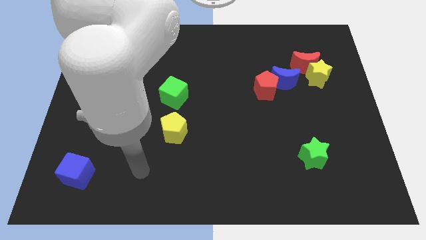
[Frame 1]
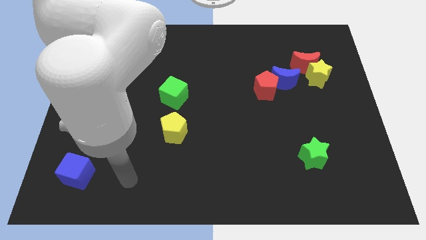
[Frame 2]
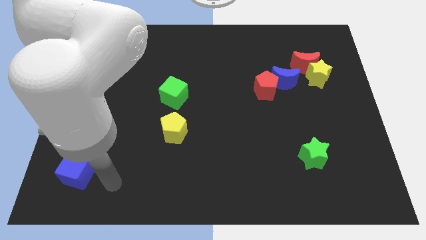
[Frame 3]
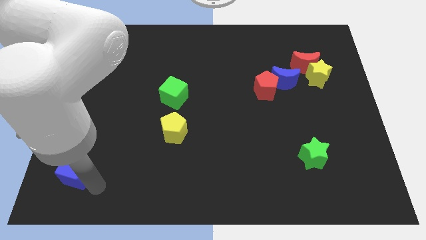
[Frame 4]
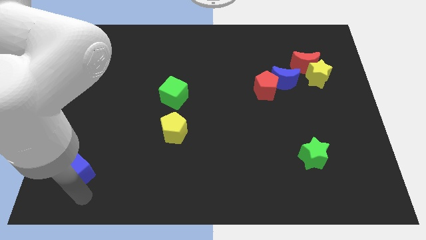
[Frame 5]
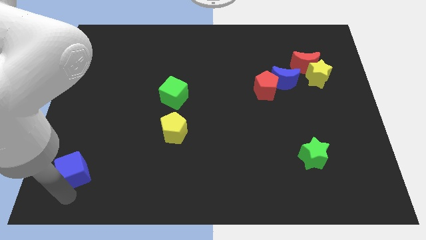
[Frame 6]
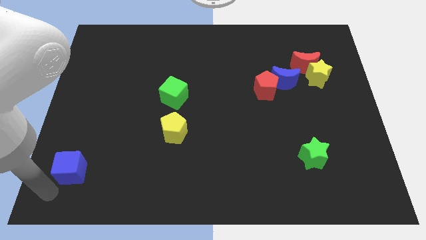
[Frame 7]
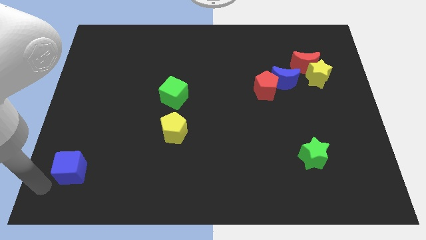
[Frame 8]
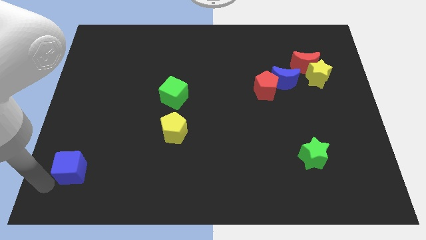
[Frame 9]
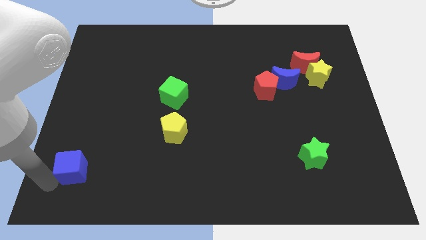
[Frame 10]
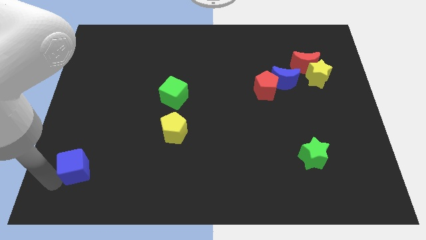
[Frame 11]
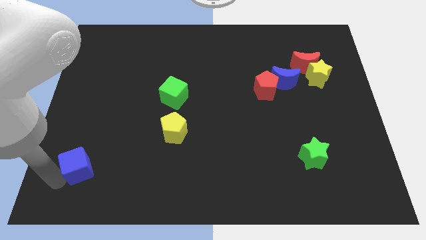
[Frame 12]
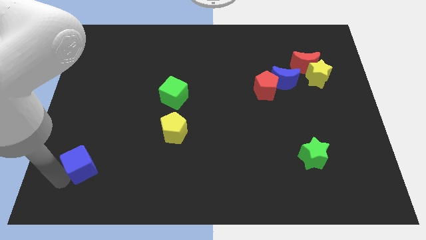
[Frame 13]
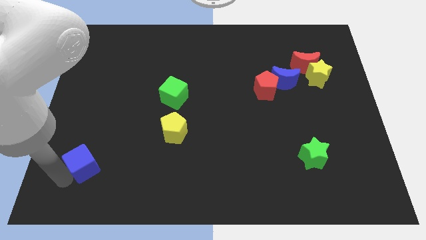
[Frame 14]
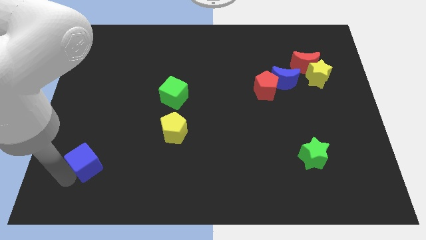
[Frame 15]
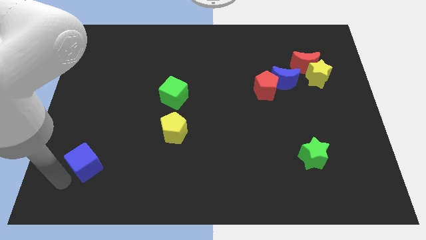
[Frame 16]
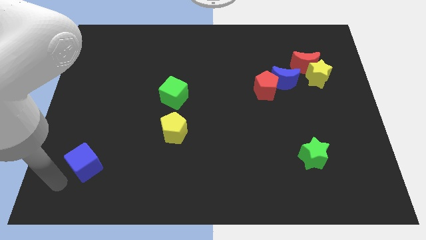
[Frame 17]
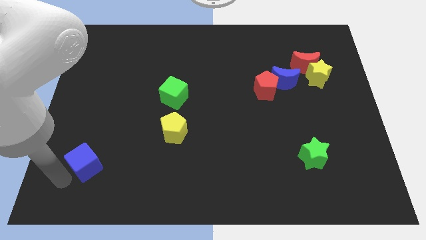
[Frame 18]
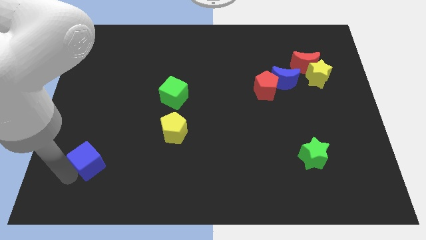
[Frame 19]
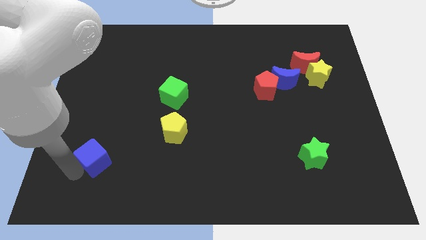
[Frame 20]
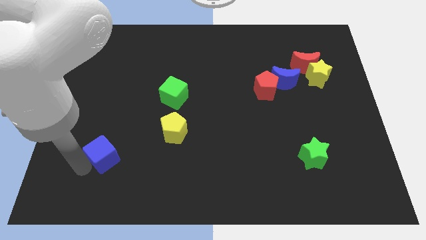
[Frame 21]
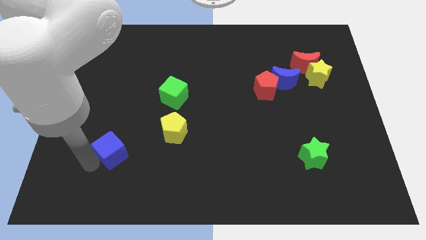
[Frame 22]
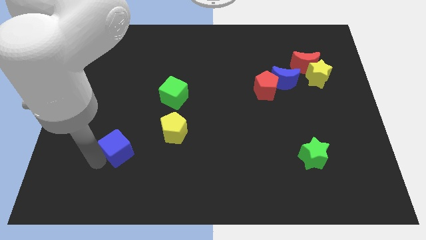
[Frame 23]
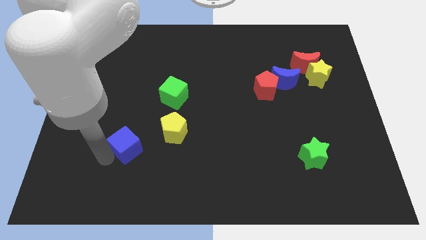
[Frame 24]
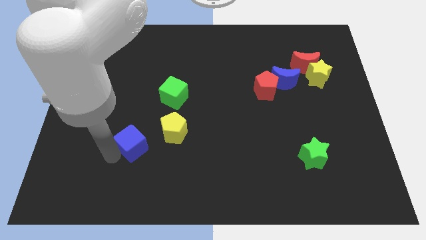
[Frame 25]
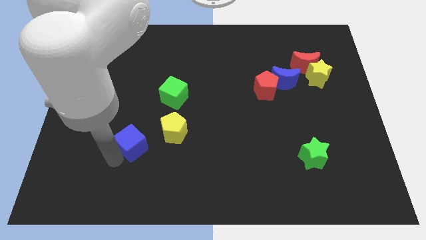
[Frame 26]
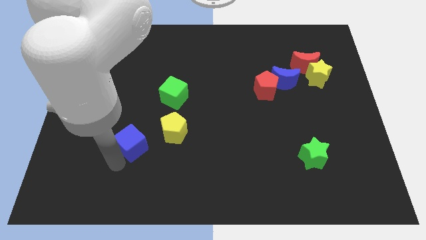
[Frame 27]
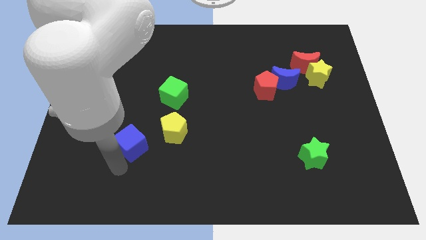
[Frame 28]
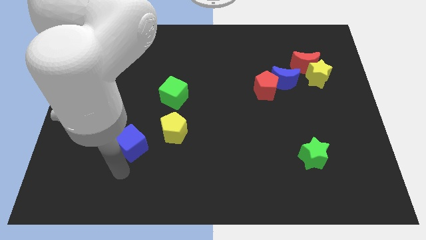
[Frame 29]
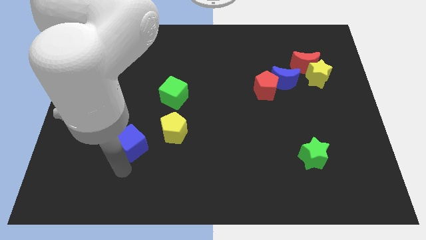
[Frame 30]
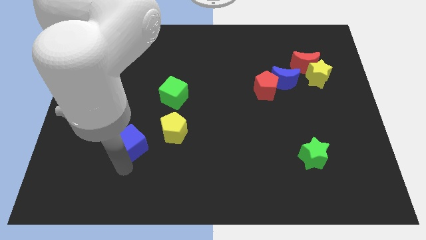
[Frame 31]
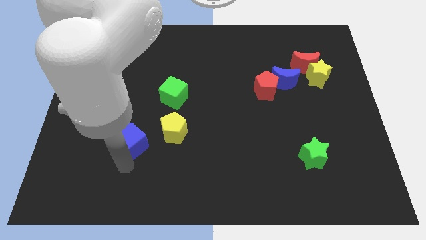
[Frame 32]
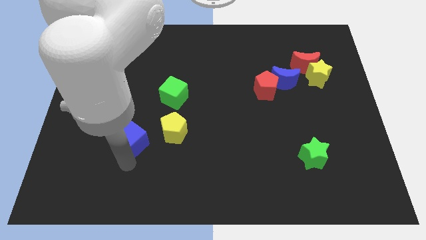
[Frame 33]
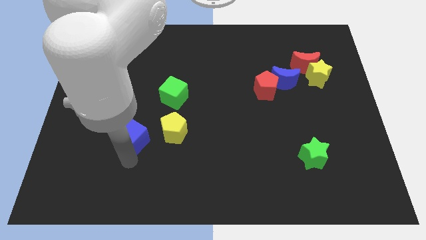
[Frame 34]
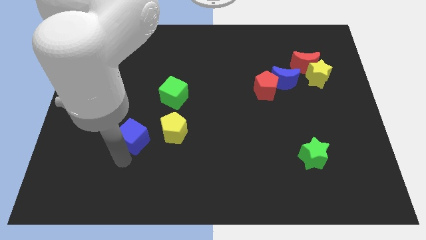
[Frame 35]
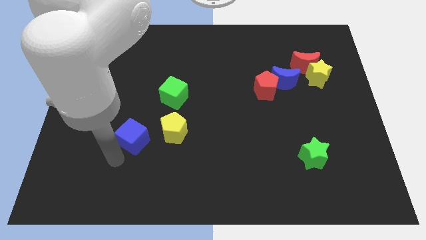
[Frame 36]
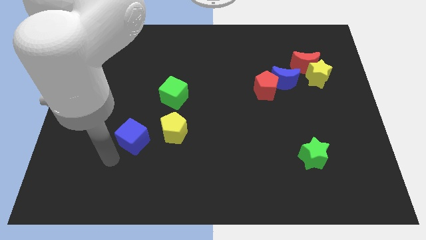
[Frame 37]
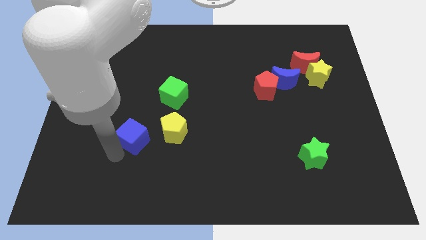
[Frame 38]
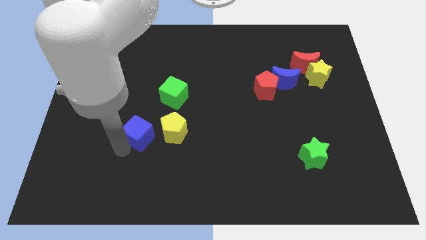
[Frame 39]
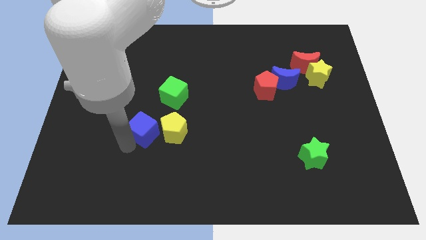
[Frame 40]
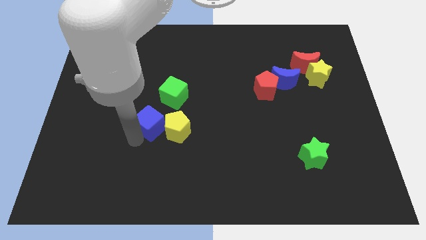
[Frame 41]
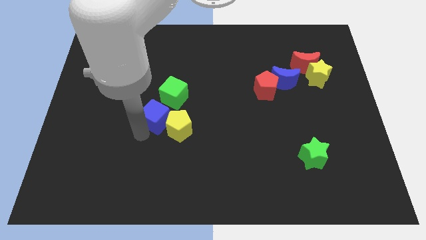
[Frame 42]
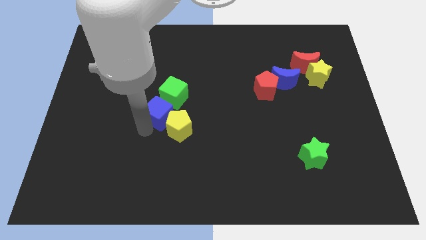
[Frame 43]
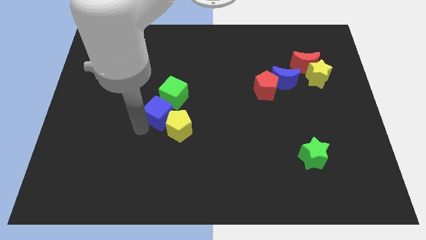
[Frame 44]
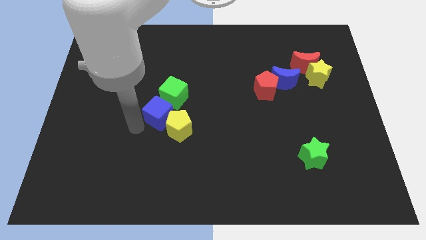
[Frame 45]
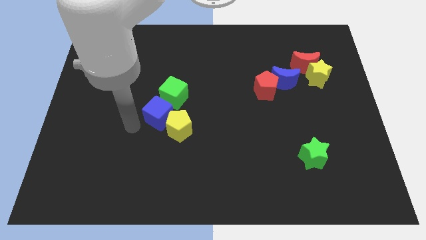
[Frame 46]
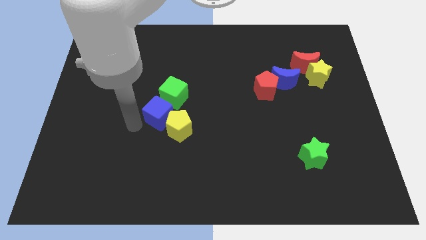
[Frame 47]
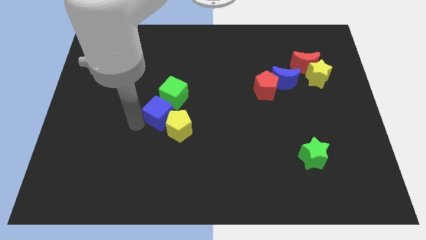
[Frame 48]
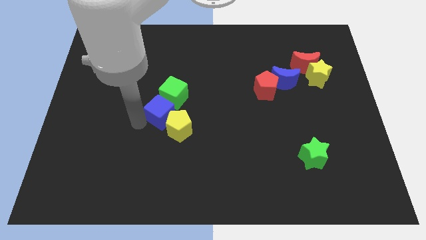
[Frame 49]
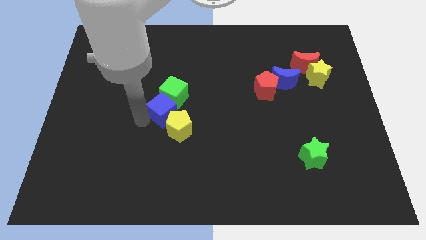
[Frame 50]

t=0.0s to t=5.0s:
put the blue cube to the center of the board

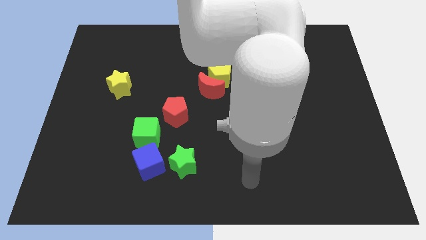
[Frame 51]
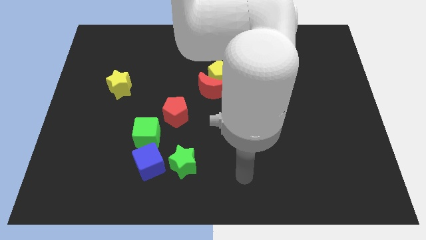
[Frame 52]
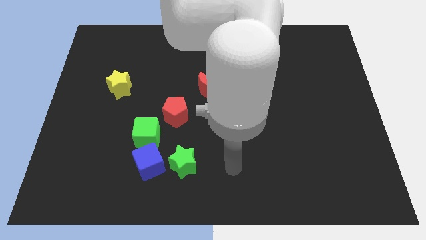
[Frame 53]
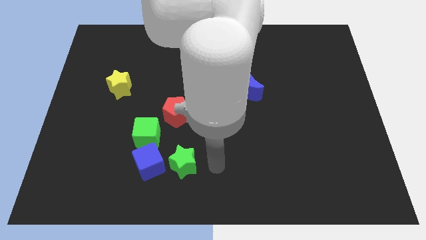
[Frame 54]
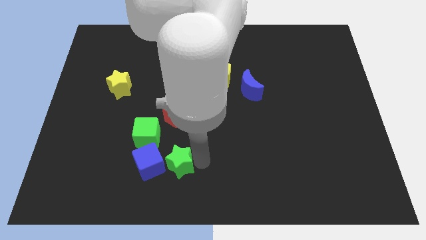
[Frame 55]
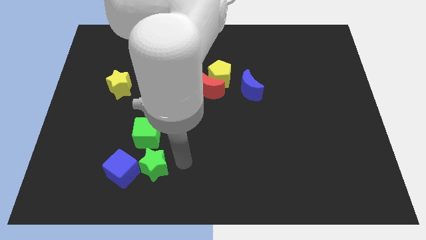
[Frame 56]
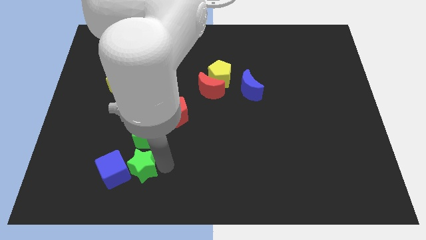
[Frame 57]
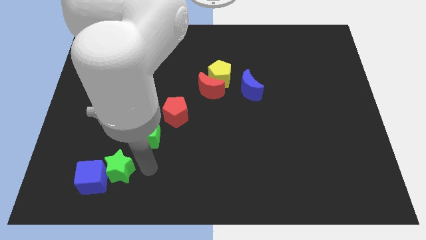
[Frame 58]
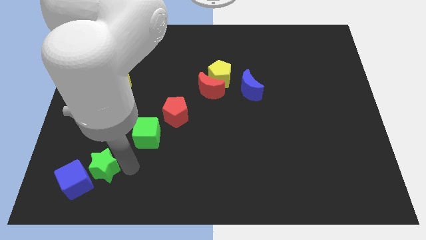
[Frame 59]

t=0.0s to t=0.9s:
put the blue cube to the bottom left corner

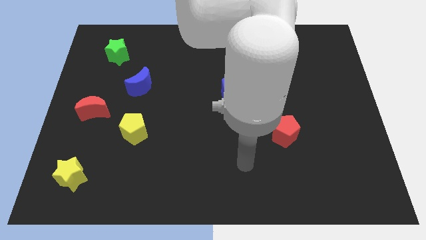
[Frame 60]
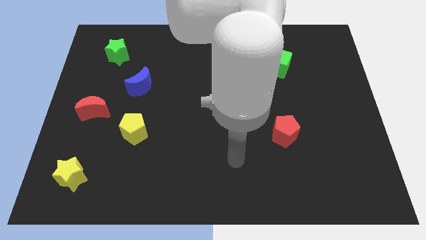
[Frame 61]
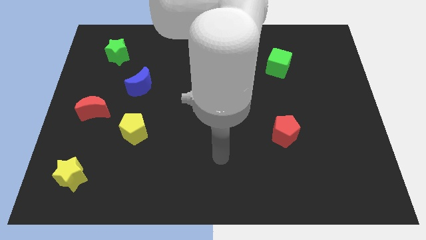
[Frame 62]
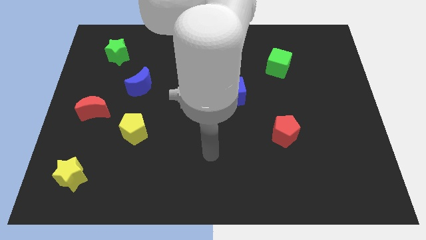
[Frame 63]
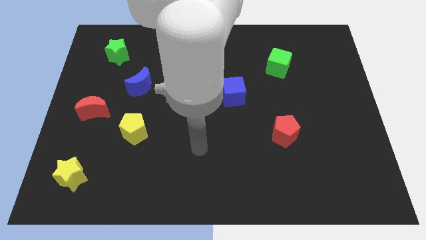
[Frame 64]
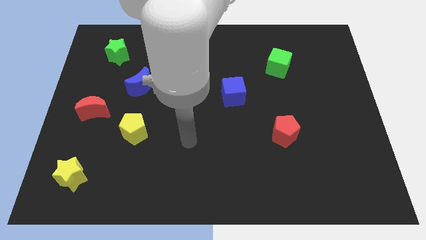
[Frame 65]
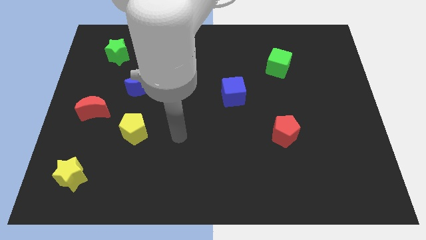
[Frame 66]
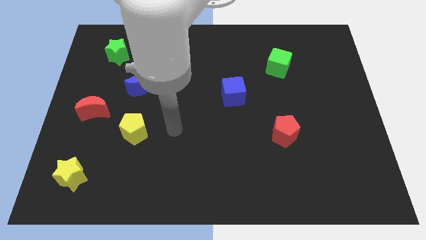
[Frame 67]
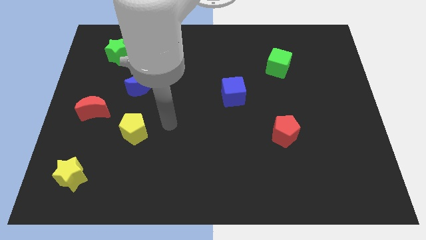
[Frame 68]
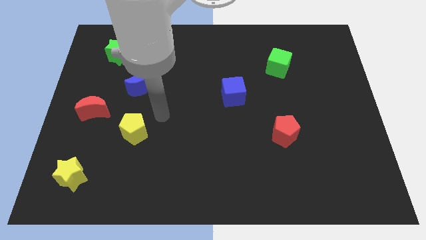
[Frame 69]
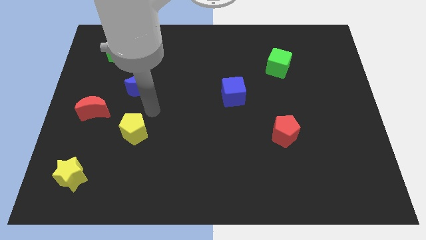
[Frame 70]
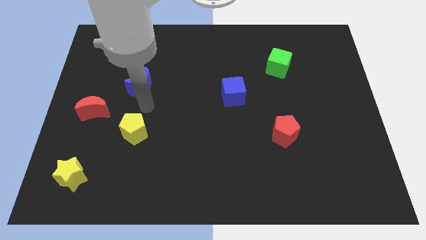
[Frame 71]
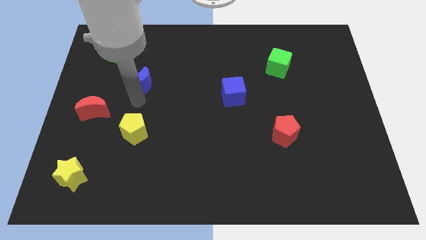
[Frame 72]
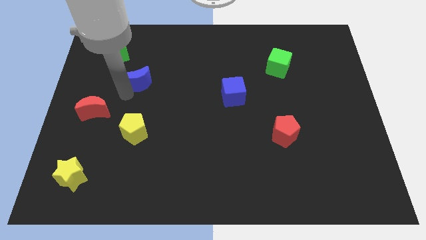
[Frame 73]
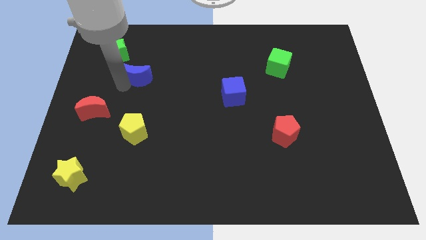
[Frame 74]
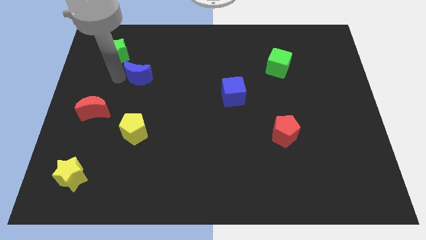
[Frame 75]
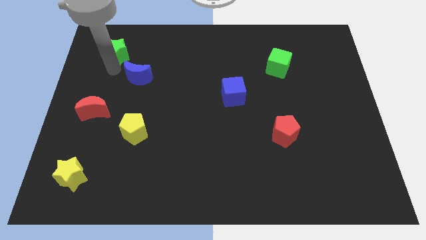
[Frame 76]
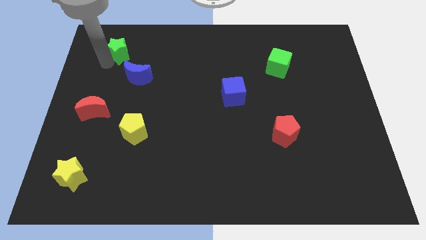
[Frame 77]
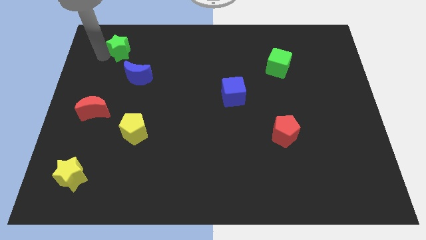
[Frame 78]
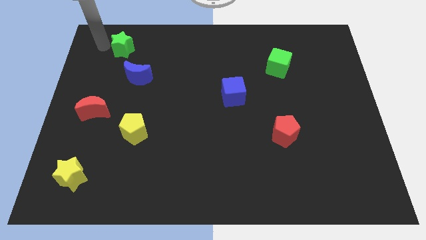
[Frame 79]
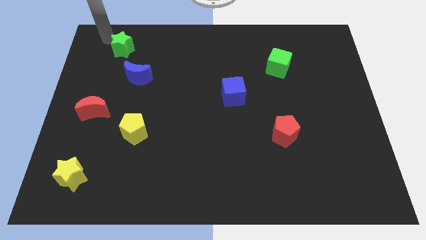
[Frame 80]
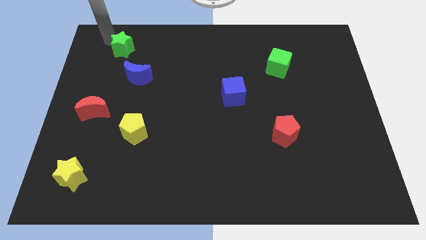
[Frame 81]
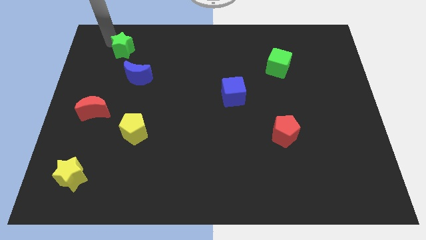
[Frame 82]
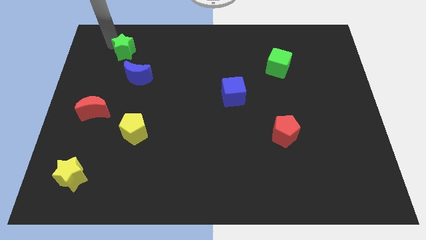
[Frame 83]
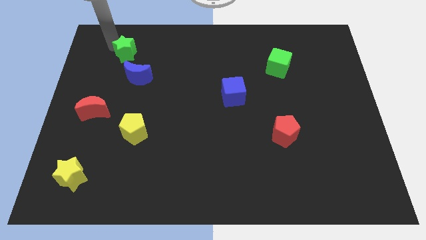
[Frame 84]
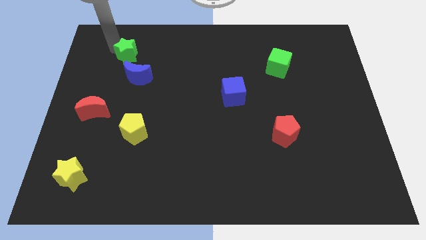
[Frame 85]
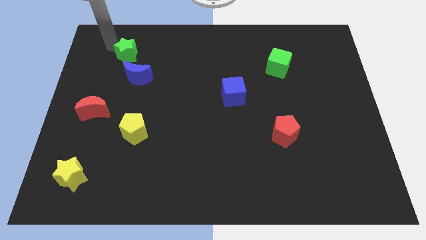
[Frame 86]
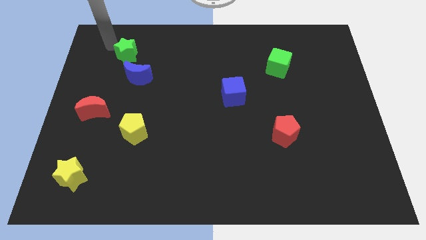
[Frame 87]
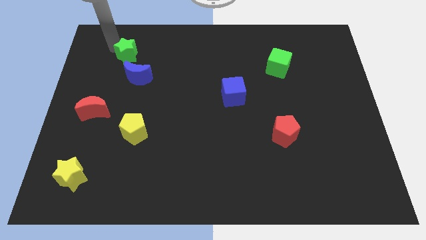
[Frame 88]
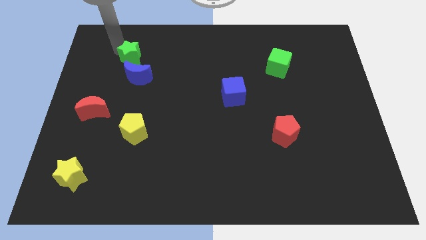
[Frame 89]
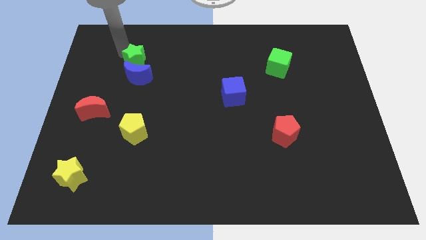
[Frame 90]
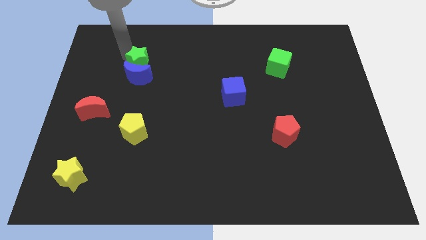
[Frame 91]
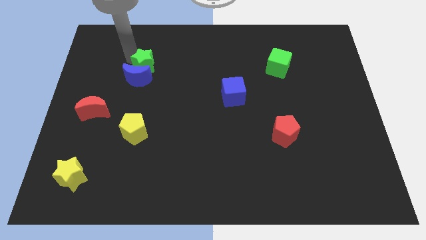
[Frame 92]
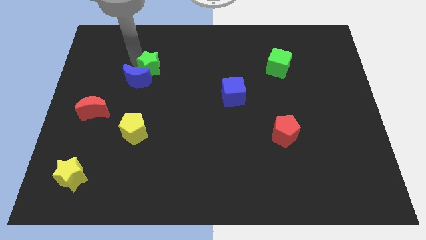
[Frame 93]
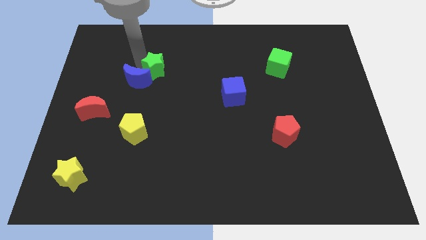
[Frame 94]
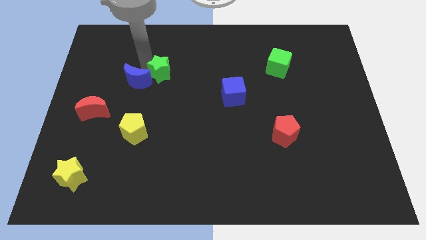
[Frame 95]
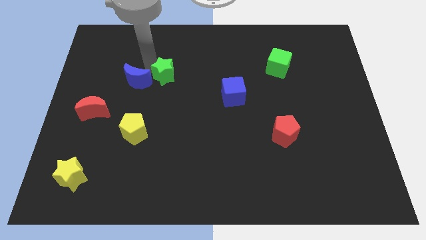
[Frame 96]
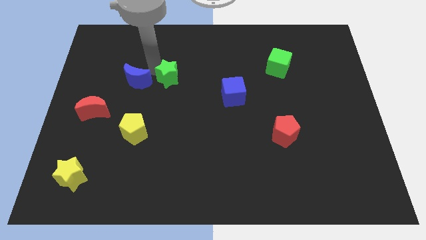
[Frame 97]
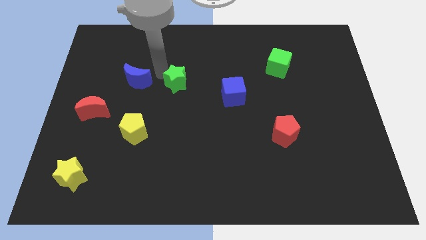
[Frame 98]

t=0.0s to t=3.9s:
push the green star to the middle of the board
